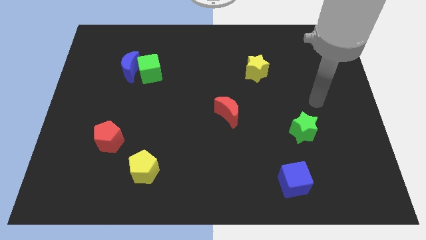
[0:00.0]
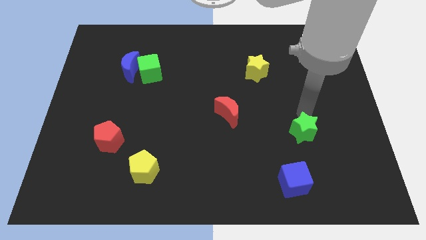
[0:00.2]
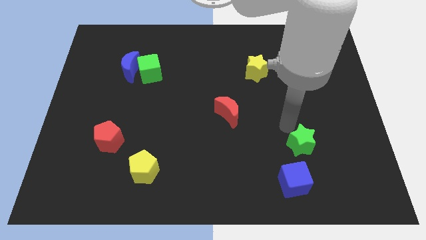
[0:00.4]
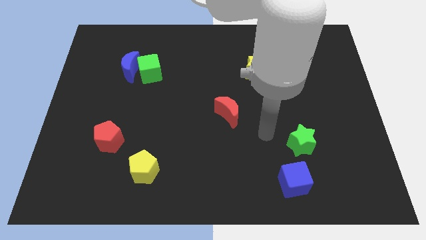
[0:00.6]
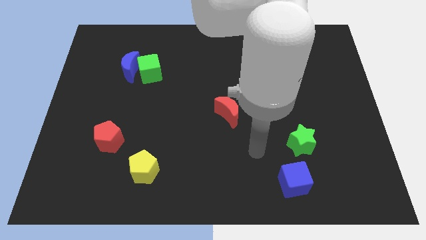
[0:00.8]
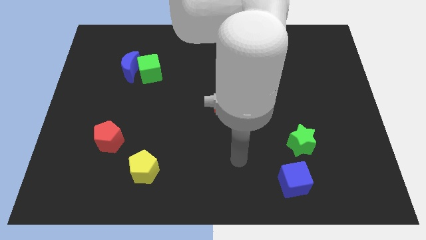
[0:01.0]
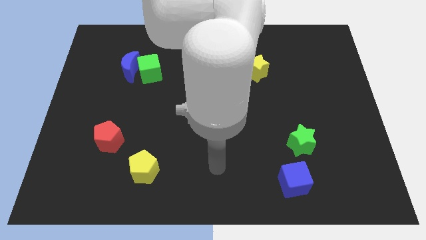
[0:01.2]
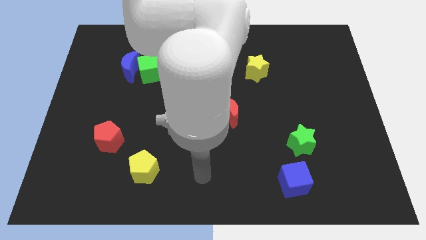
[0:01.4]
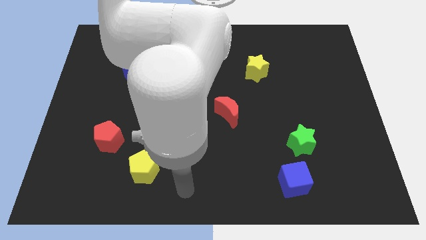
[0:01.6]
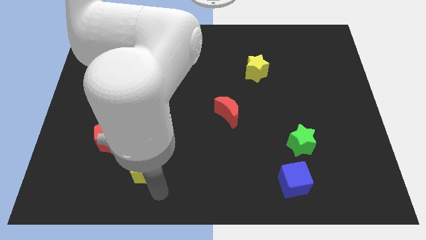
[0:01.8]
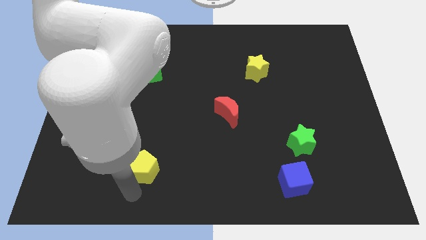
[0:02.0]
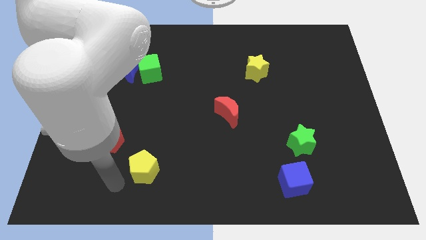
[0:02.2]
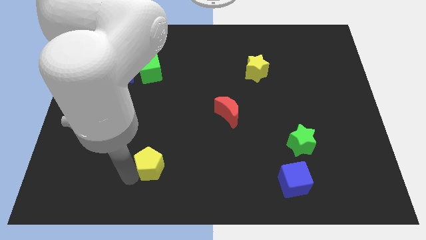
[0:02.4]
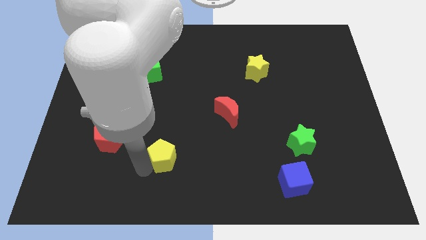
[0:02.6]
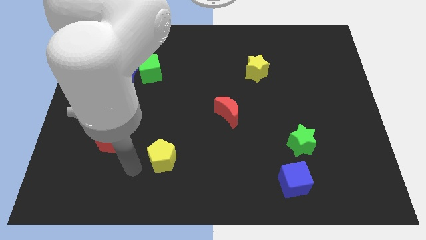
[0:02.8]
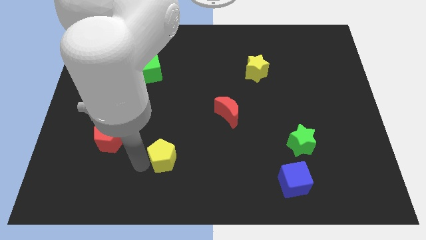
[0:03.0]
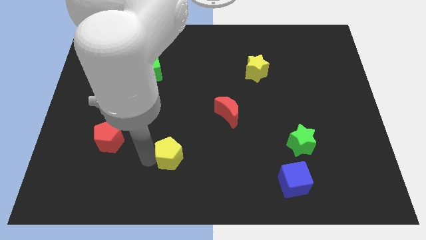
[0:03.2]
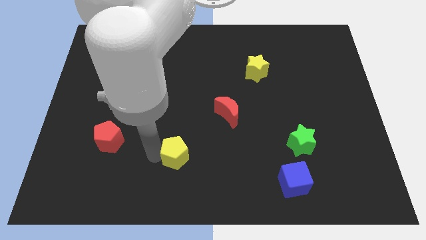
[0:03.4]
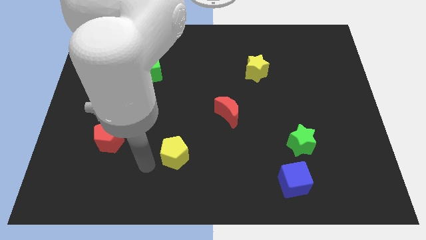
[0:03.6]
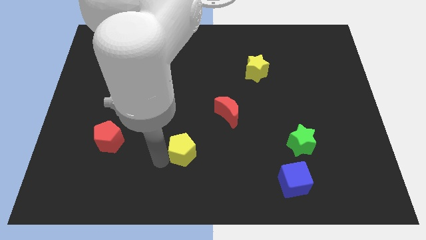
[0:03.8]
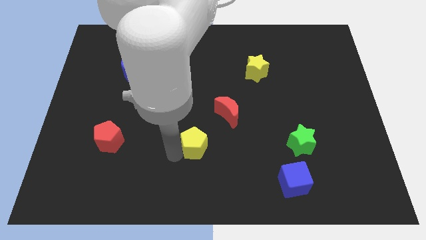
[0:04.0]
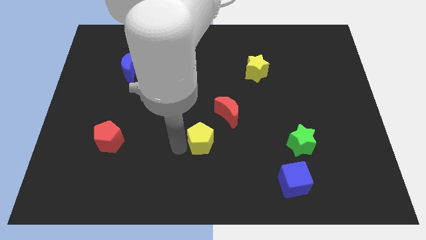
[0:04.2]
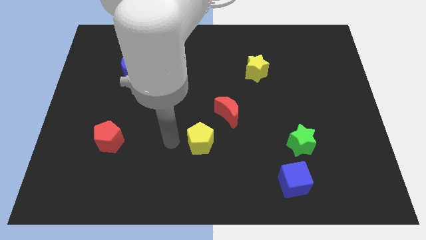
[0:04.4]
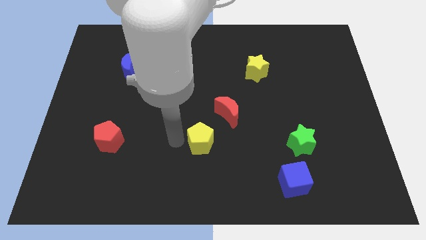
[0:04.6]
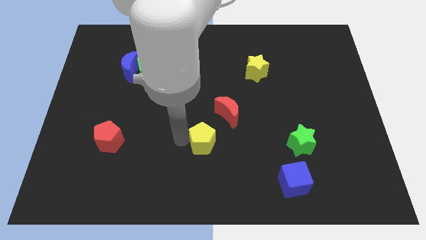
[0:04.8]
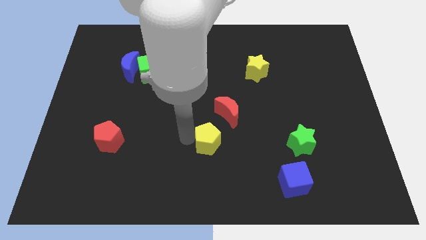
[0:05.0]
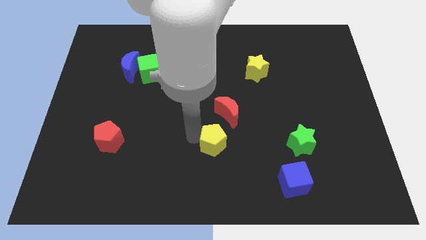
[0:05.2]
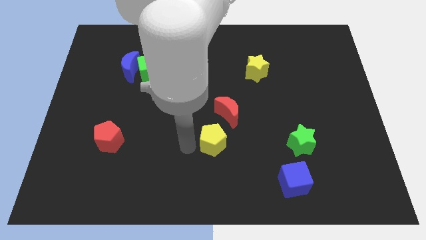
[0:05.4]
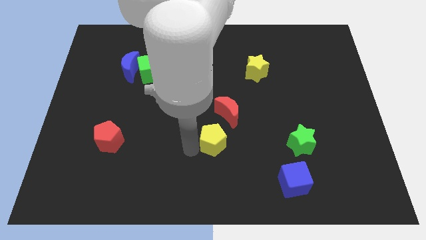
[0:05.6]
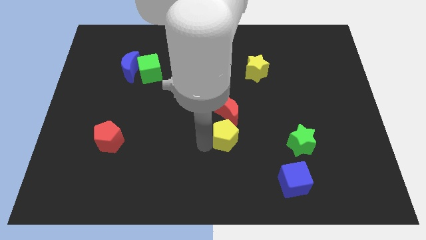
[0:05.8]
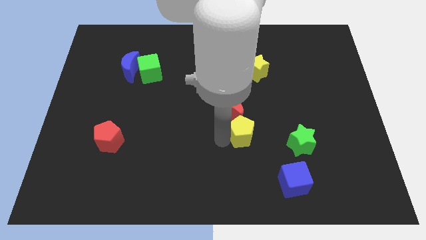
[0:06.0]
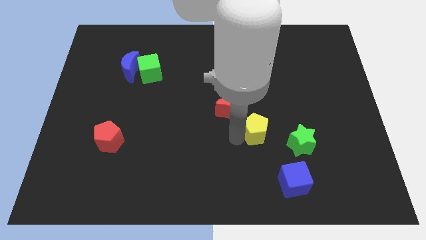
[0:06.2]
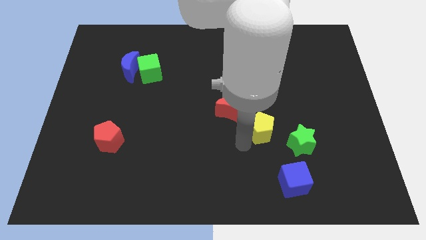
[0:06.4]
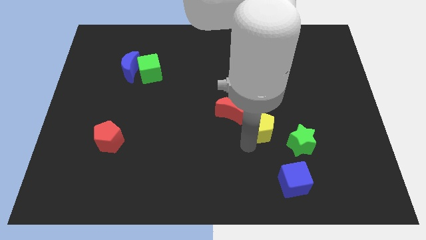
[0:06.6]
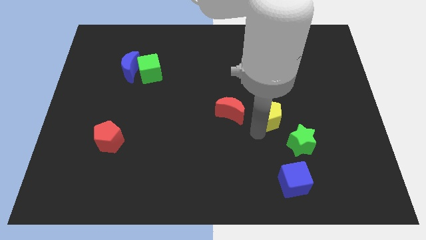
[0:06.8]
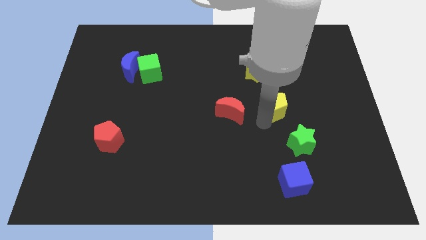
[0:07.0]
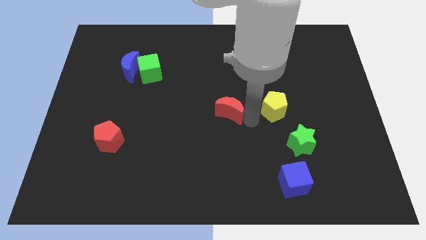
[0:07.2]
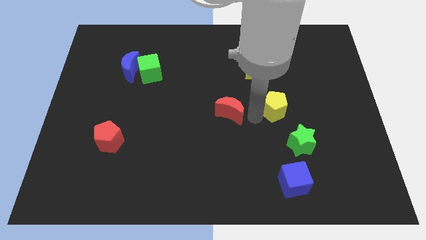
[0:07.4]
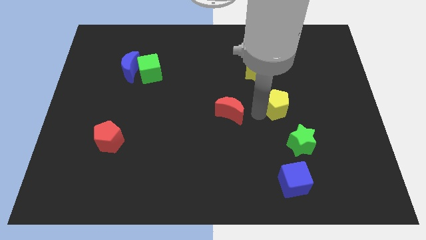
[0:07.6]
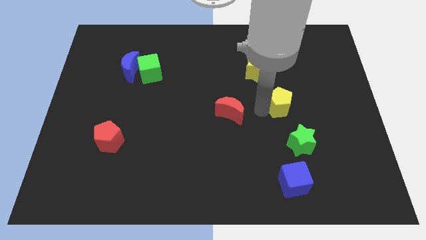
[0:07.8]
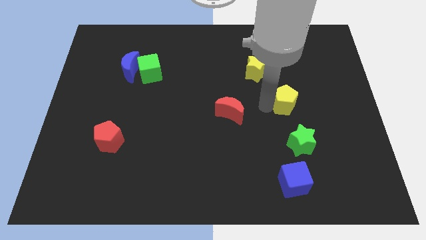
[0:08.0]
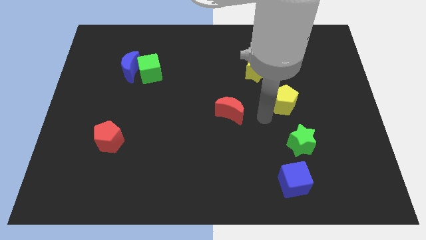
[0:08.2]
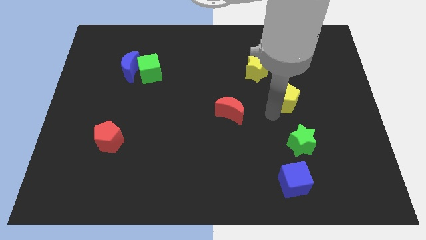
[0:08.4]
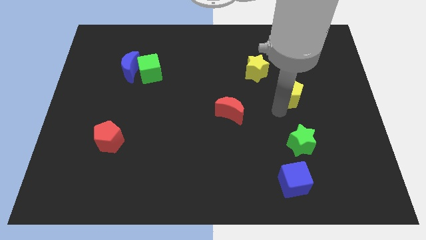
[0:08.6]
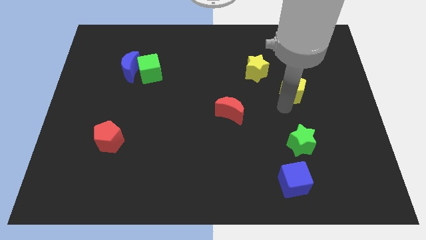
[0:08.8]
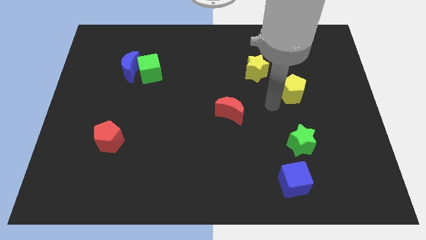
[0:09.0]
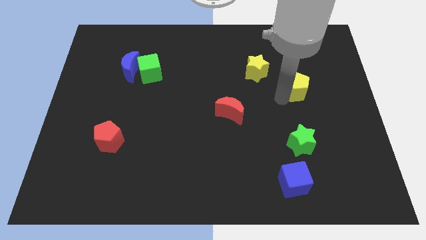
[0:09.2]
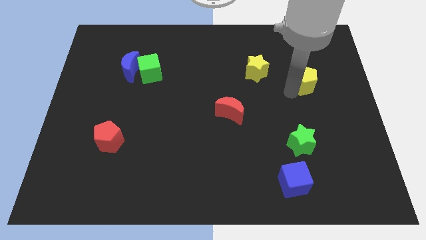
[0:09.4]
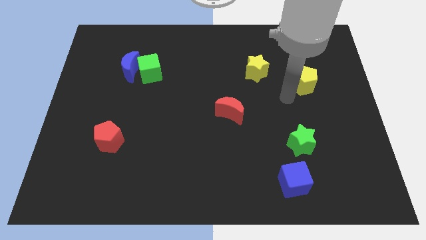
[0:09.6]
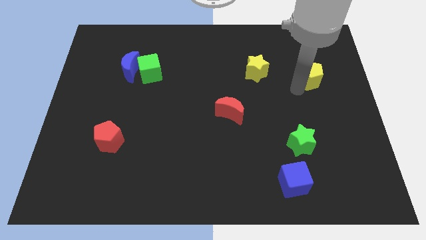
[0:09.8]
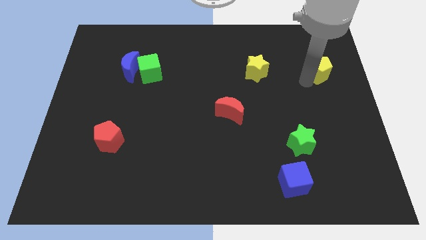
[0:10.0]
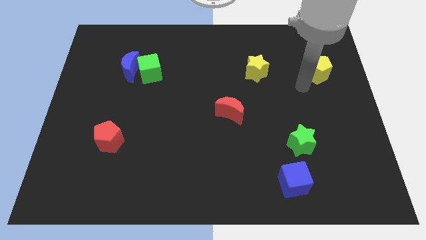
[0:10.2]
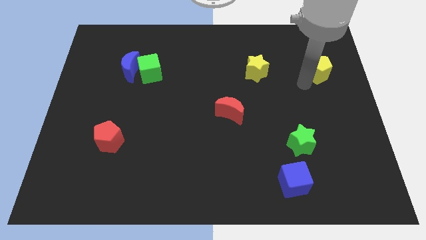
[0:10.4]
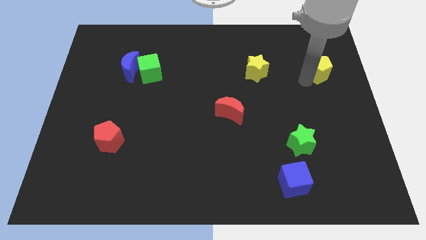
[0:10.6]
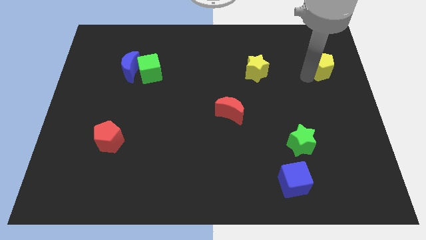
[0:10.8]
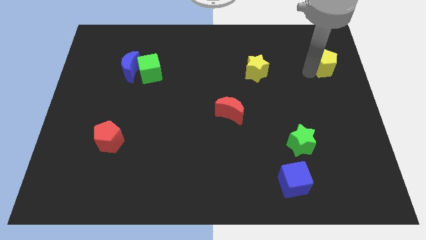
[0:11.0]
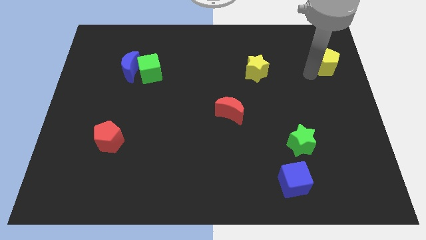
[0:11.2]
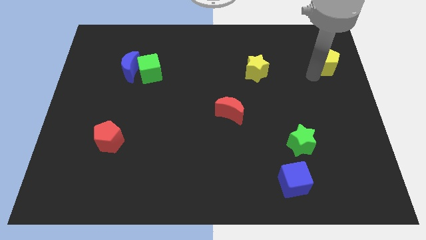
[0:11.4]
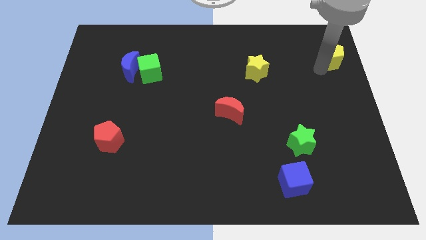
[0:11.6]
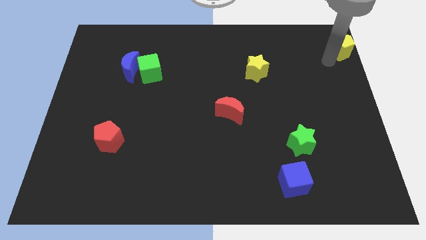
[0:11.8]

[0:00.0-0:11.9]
slide the yellow pentagon to the top right corner

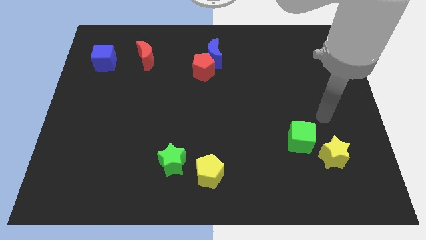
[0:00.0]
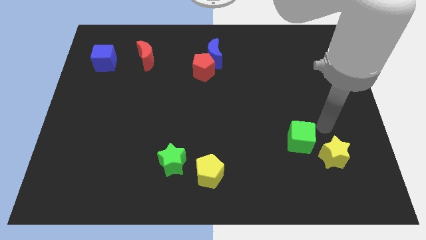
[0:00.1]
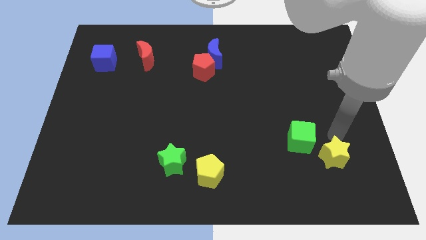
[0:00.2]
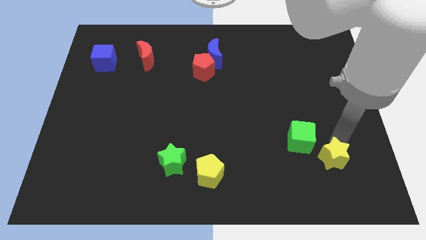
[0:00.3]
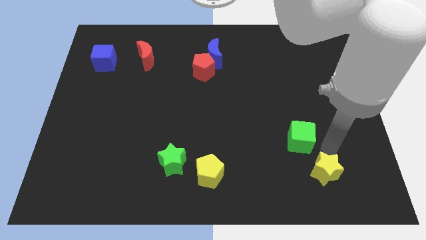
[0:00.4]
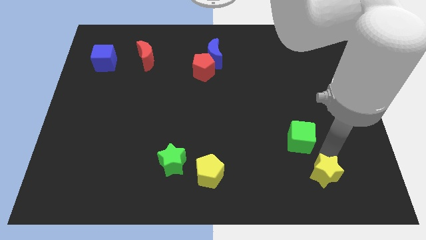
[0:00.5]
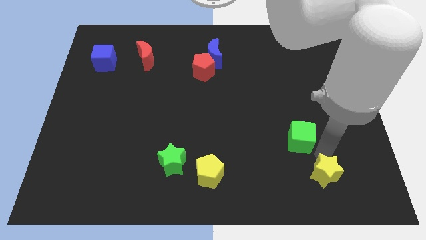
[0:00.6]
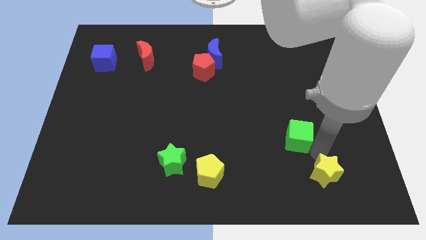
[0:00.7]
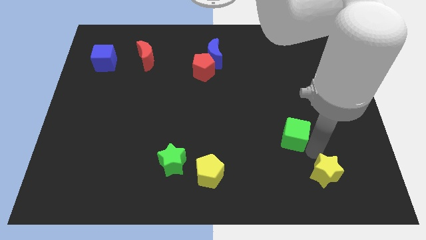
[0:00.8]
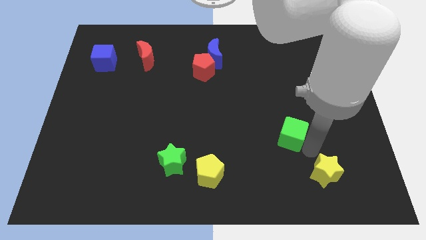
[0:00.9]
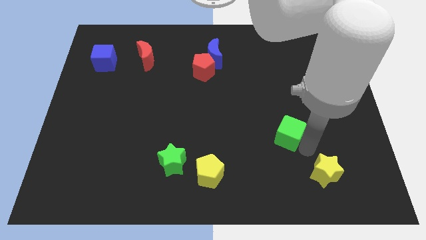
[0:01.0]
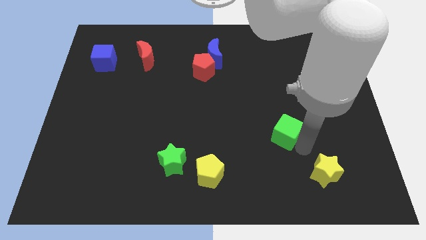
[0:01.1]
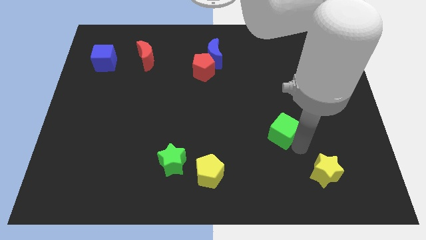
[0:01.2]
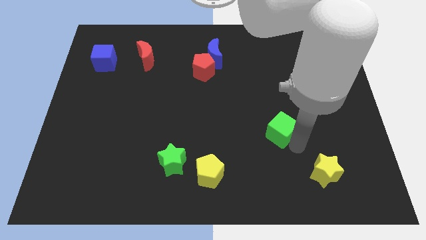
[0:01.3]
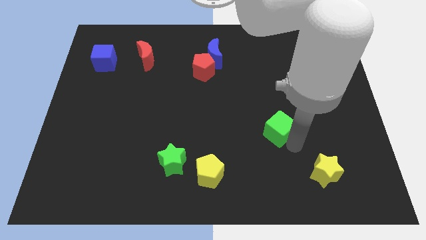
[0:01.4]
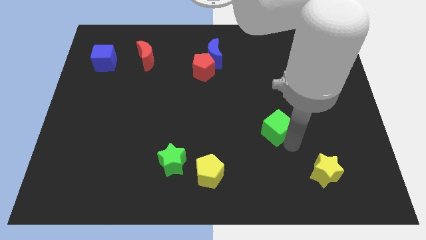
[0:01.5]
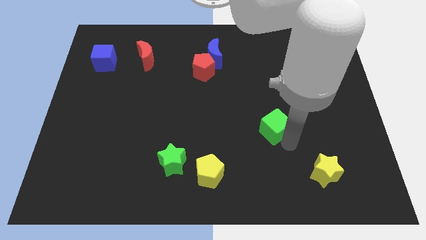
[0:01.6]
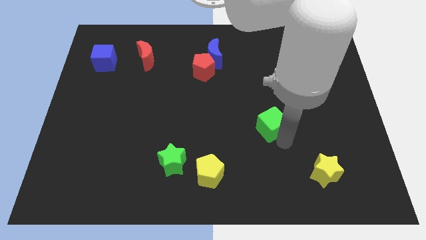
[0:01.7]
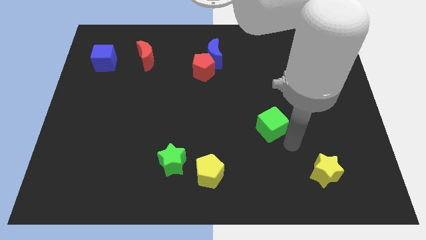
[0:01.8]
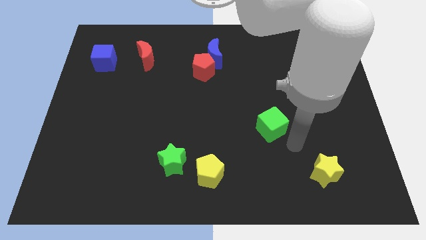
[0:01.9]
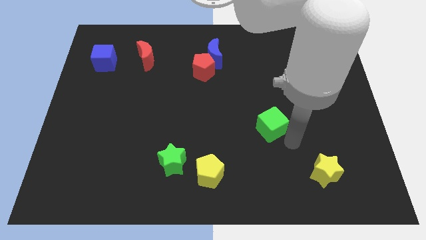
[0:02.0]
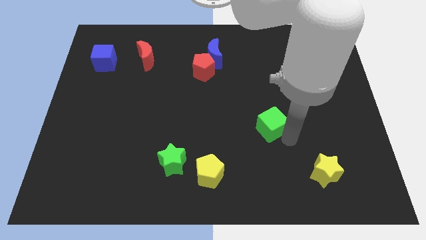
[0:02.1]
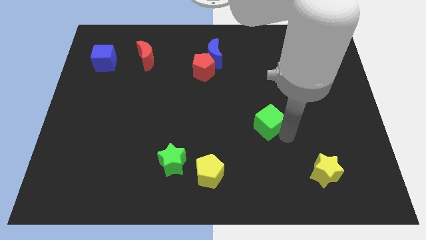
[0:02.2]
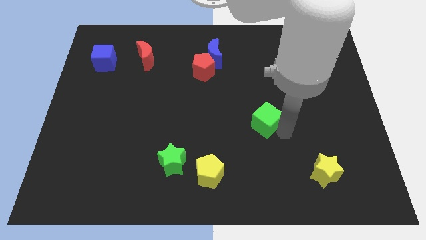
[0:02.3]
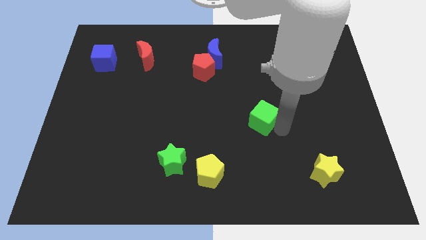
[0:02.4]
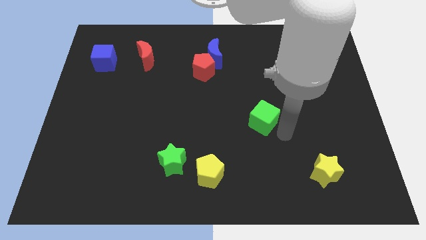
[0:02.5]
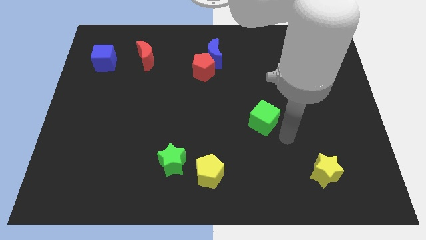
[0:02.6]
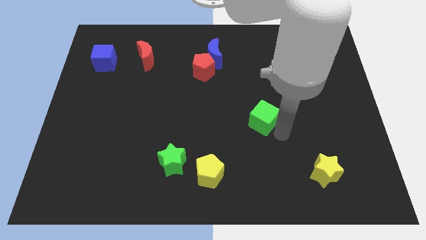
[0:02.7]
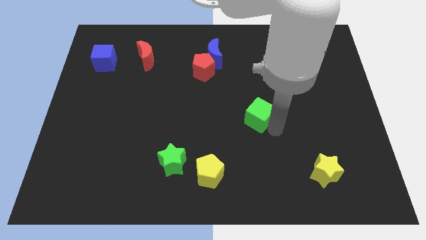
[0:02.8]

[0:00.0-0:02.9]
put the green cube to the center of the board
